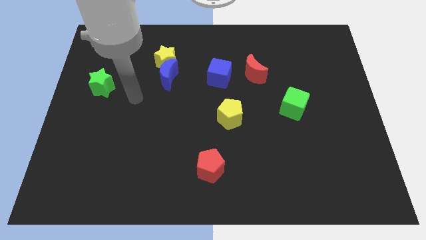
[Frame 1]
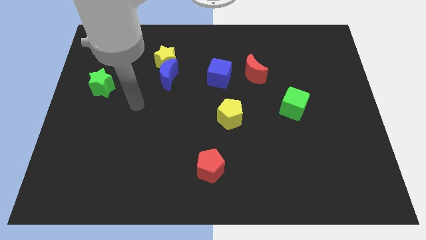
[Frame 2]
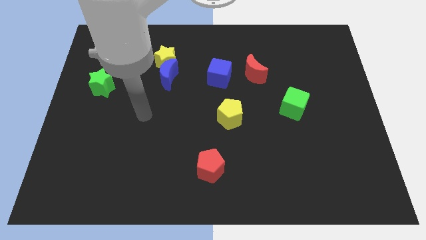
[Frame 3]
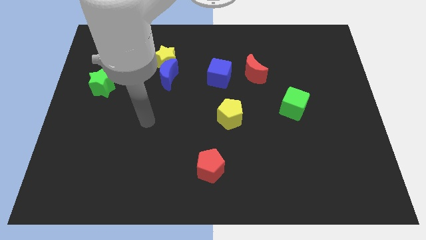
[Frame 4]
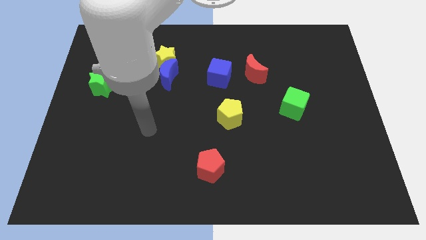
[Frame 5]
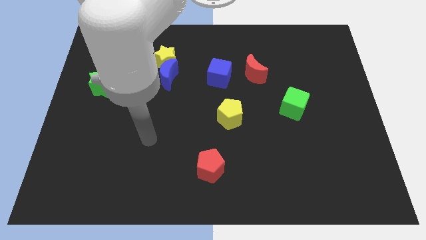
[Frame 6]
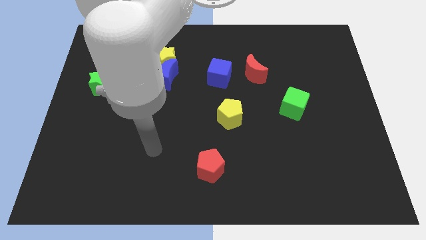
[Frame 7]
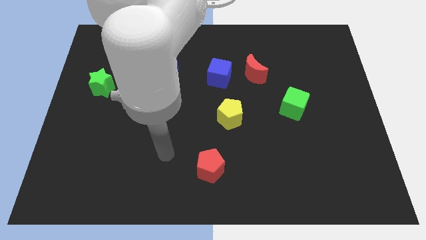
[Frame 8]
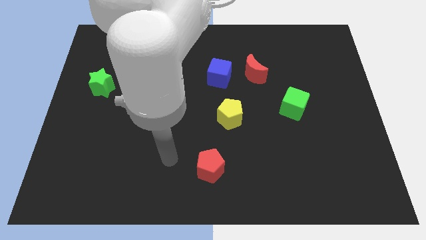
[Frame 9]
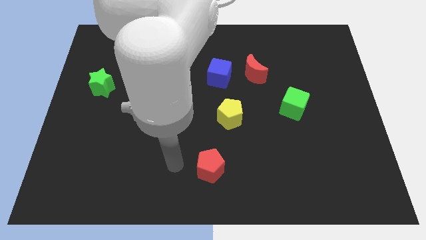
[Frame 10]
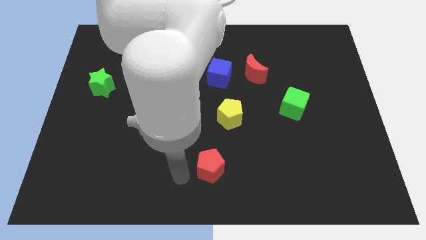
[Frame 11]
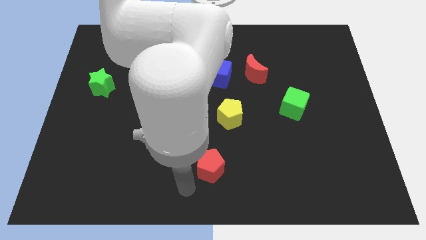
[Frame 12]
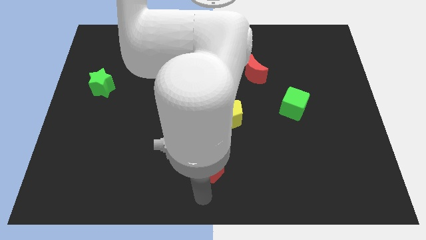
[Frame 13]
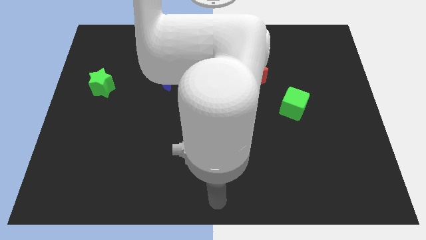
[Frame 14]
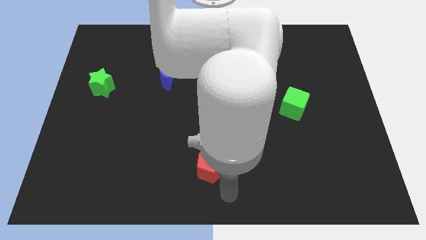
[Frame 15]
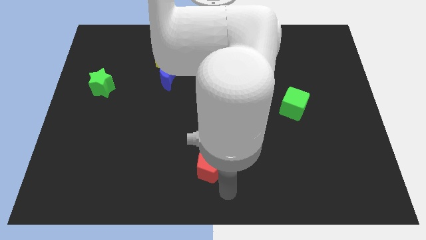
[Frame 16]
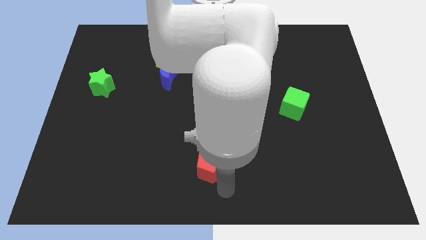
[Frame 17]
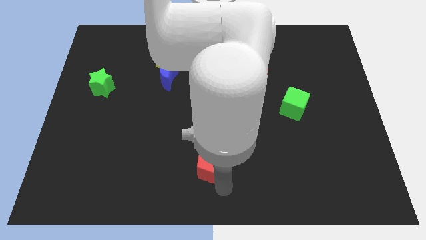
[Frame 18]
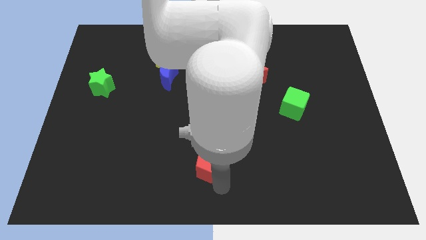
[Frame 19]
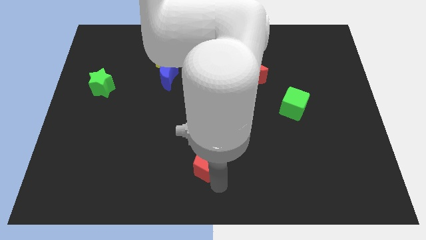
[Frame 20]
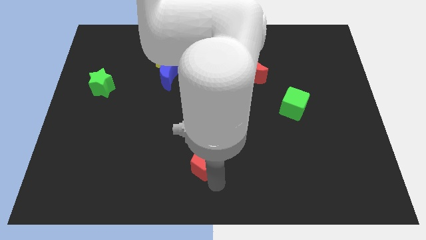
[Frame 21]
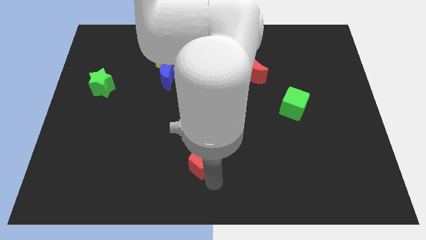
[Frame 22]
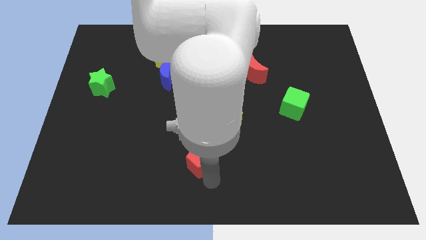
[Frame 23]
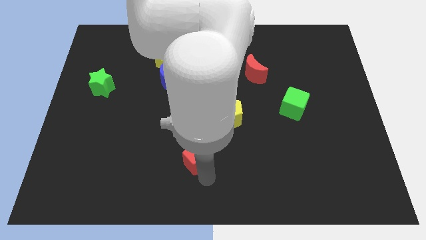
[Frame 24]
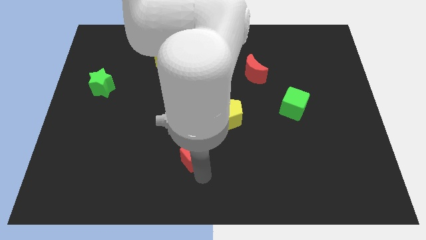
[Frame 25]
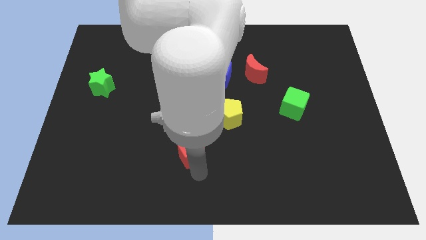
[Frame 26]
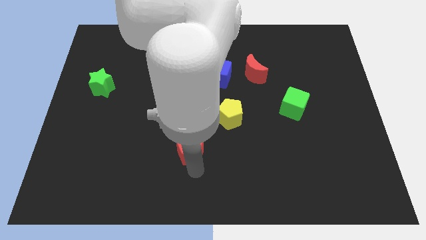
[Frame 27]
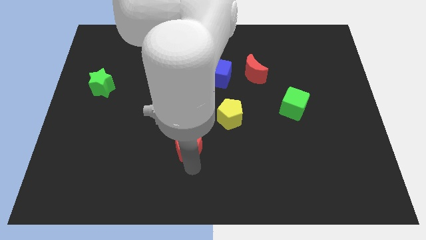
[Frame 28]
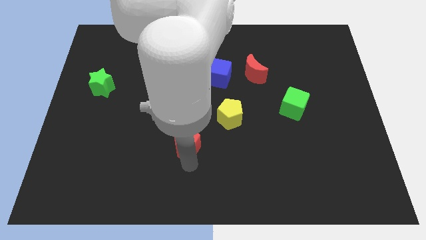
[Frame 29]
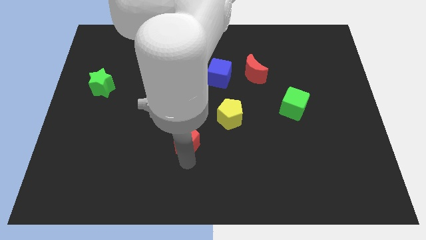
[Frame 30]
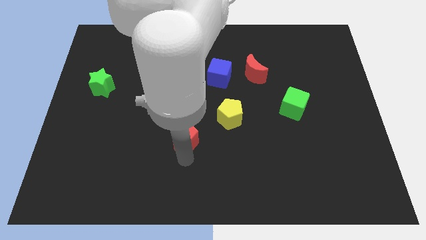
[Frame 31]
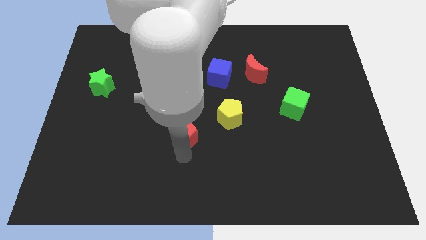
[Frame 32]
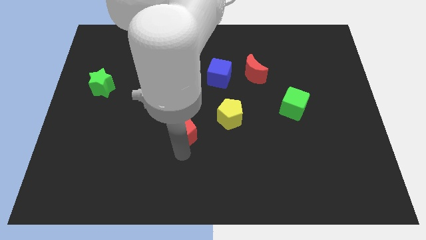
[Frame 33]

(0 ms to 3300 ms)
move the red pentagon upwards somewhat

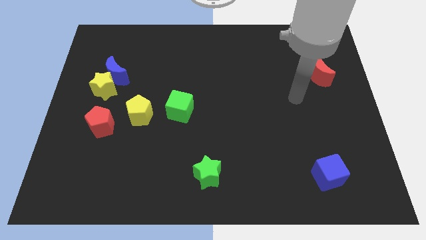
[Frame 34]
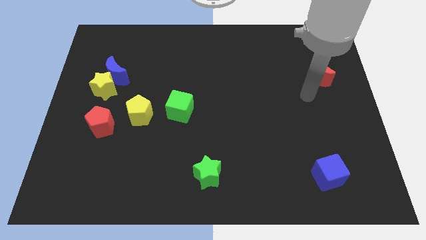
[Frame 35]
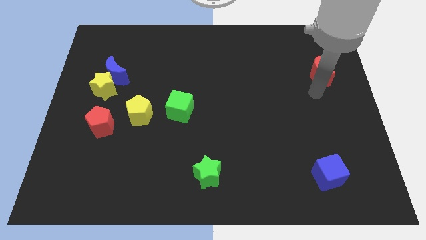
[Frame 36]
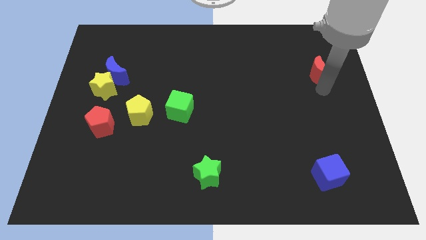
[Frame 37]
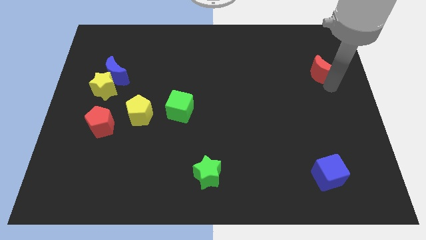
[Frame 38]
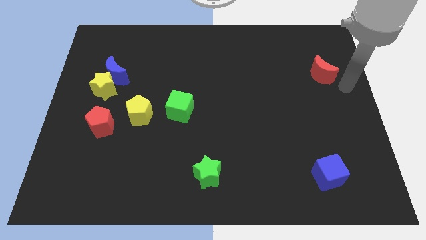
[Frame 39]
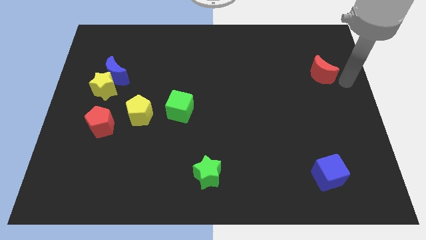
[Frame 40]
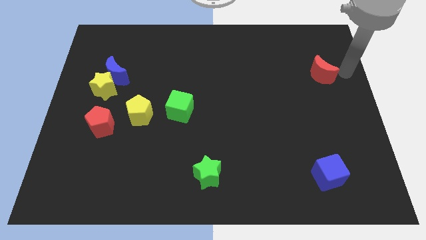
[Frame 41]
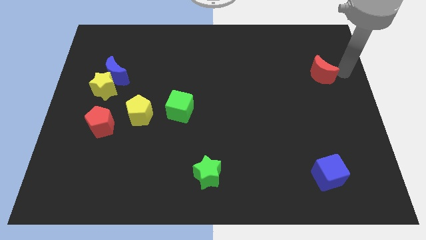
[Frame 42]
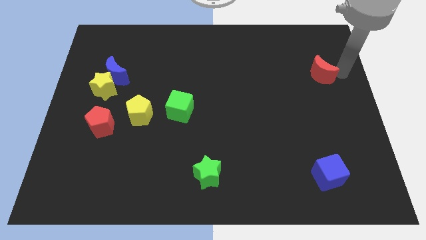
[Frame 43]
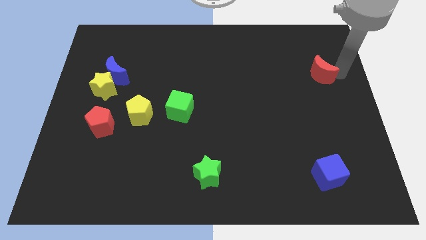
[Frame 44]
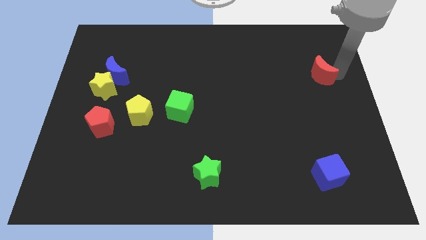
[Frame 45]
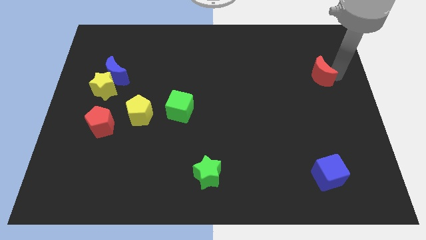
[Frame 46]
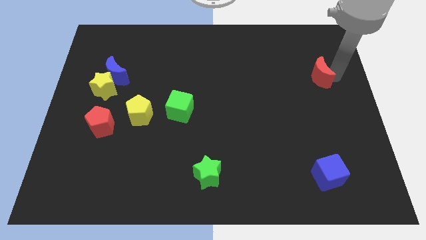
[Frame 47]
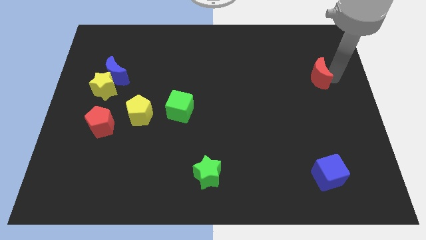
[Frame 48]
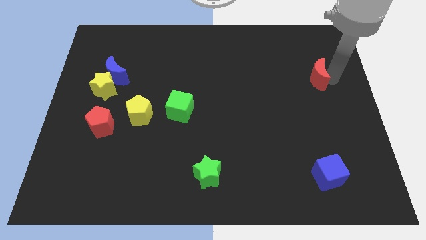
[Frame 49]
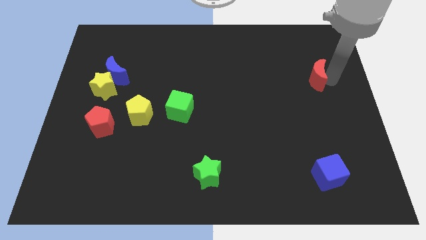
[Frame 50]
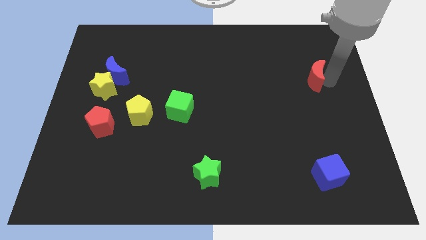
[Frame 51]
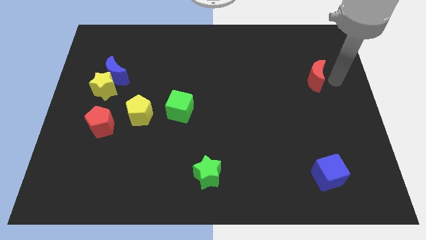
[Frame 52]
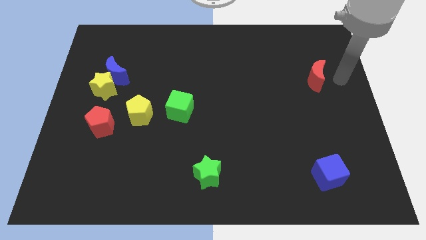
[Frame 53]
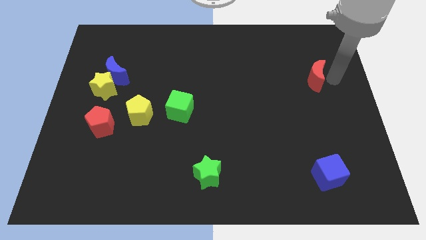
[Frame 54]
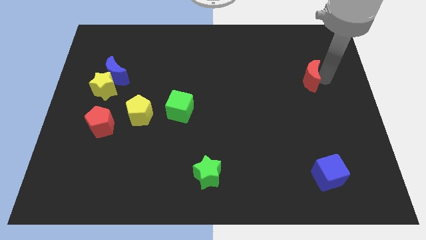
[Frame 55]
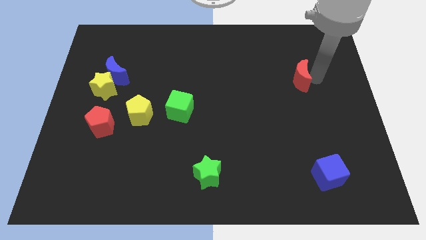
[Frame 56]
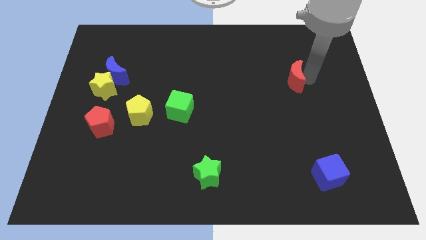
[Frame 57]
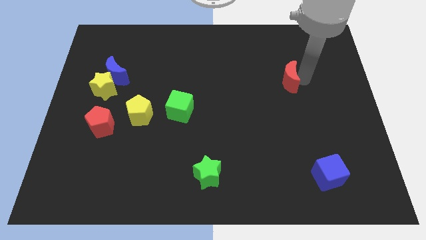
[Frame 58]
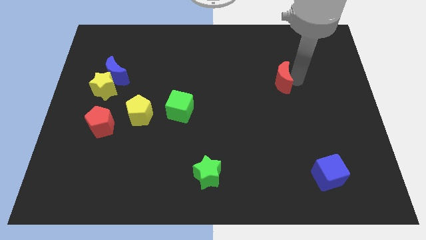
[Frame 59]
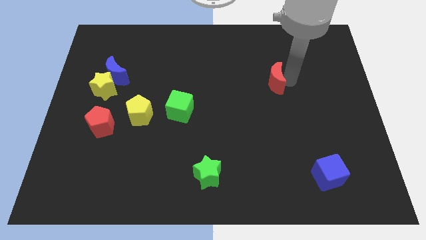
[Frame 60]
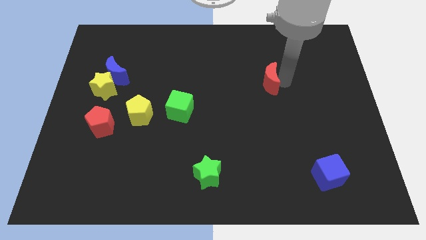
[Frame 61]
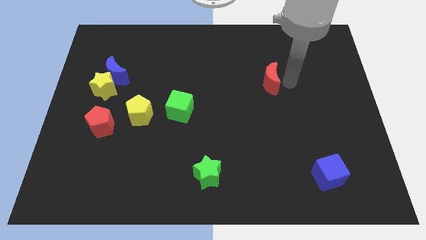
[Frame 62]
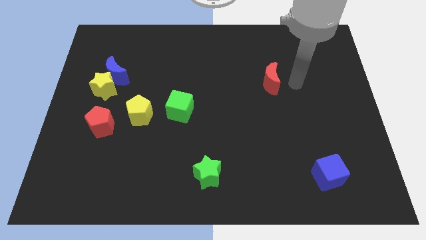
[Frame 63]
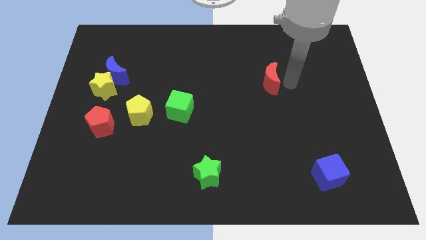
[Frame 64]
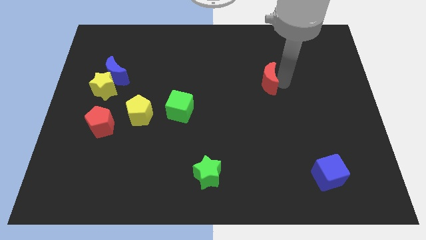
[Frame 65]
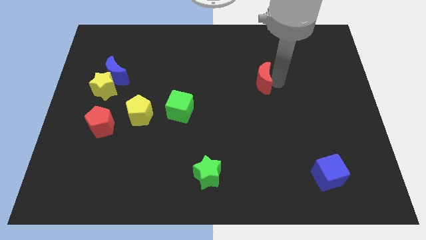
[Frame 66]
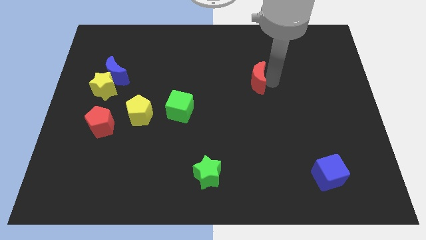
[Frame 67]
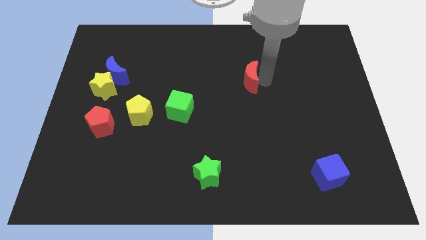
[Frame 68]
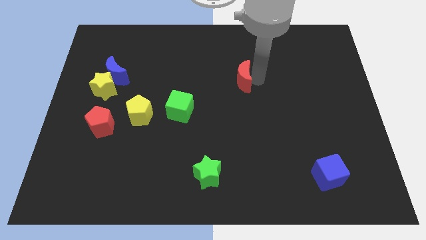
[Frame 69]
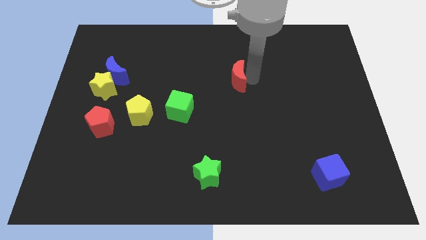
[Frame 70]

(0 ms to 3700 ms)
move the red moon to the left

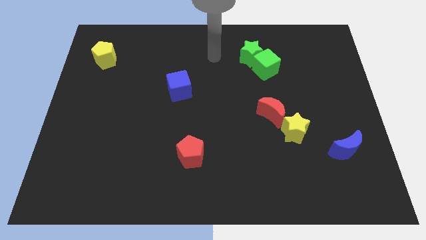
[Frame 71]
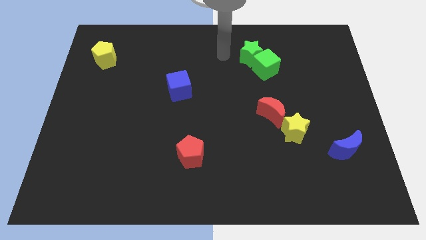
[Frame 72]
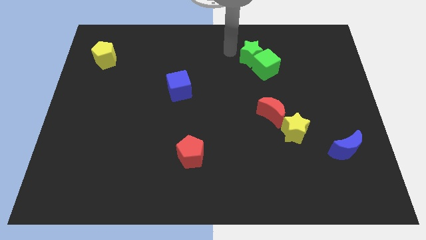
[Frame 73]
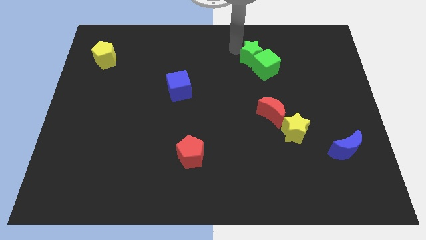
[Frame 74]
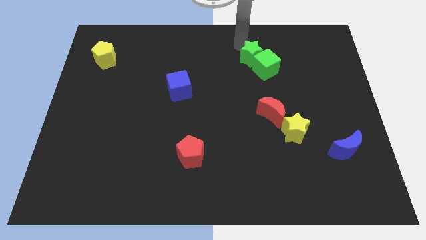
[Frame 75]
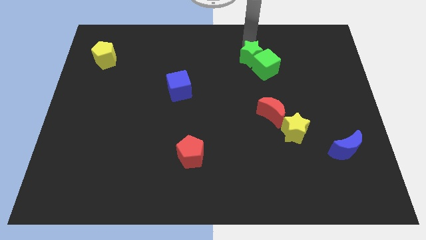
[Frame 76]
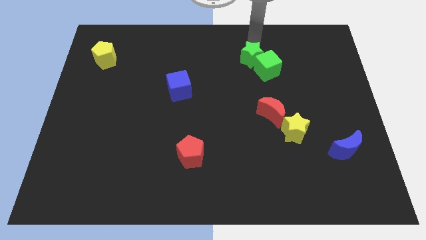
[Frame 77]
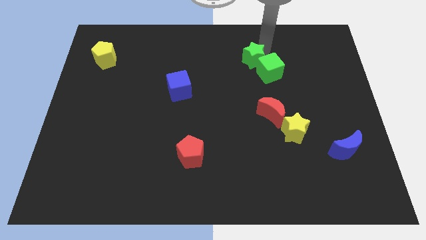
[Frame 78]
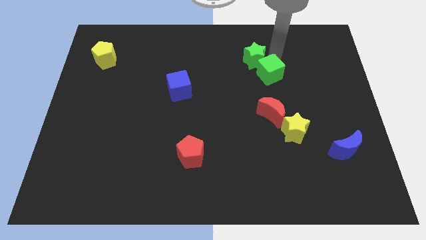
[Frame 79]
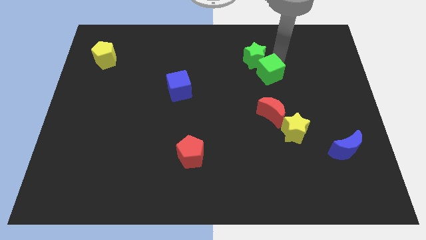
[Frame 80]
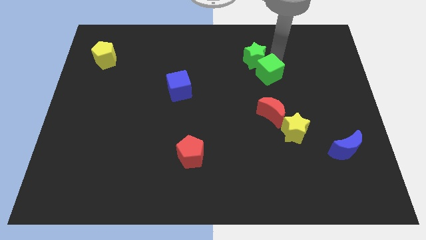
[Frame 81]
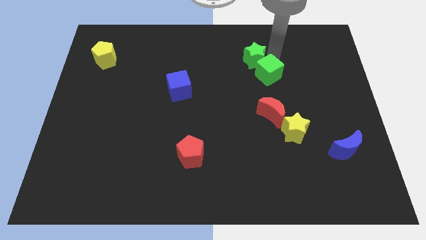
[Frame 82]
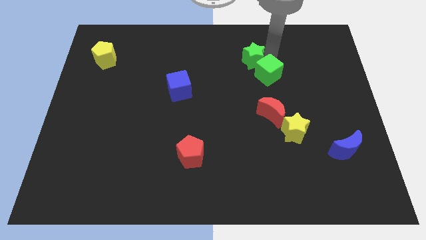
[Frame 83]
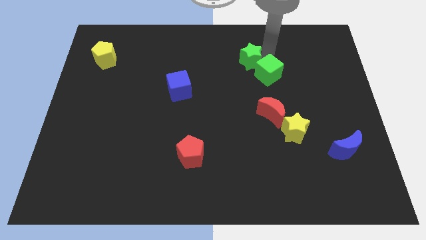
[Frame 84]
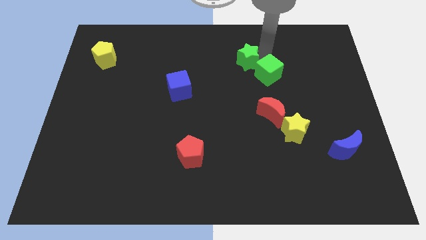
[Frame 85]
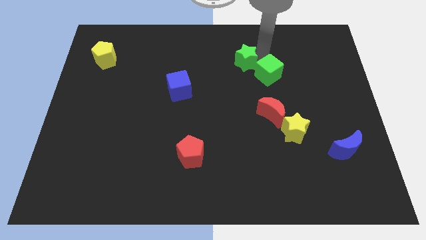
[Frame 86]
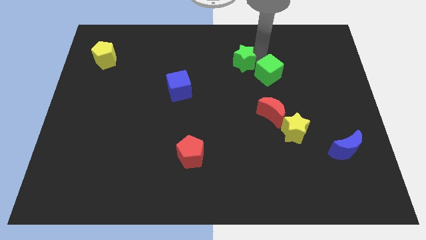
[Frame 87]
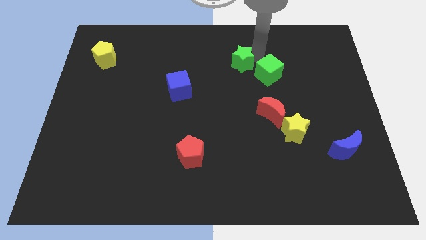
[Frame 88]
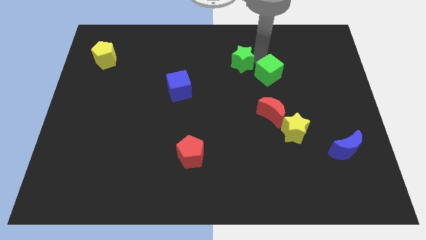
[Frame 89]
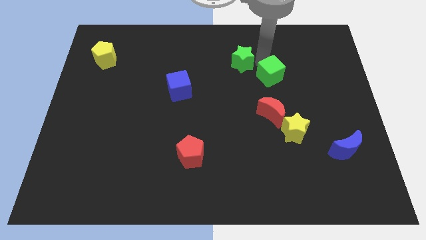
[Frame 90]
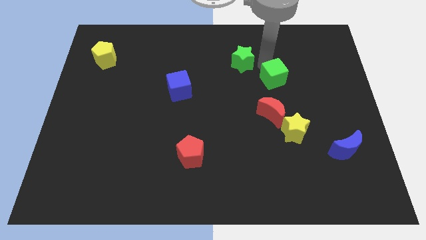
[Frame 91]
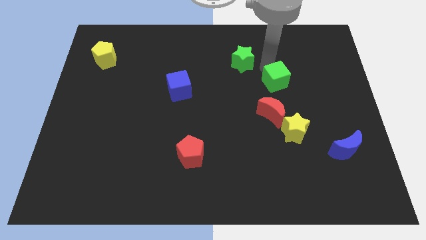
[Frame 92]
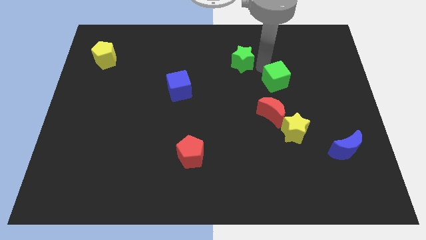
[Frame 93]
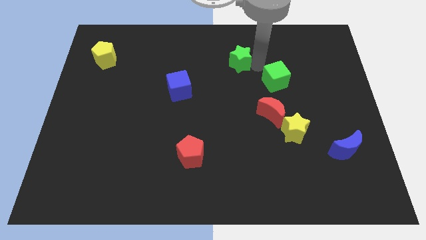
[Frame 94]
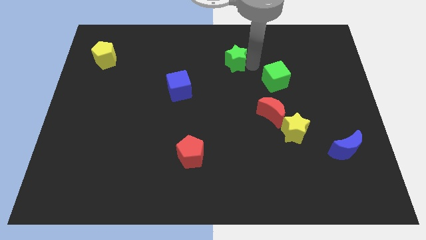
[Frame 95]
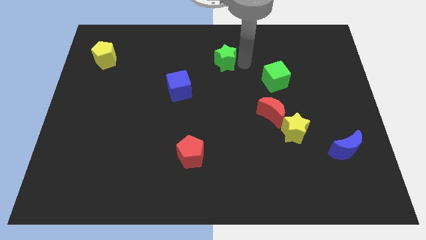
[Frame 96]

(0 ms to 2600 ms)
push the green star a little bit left
